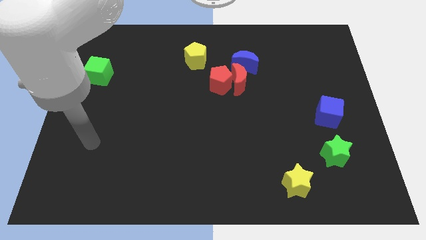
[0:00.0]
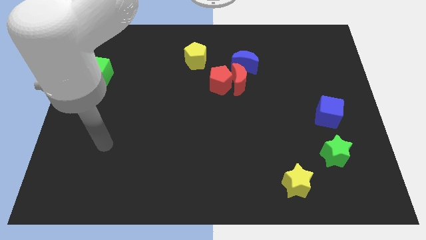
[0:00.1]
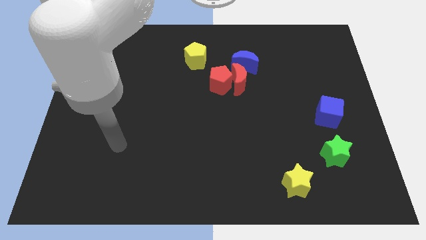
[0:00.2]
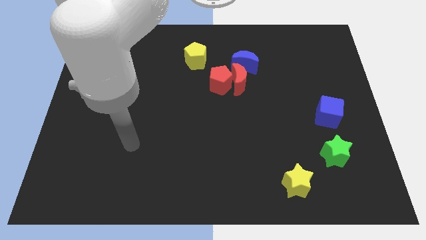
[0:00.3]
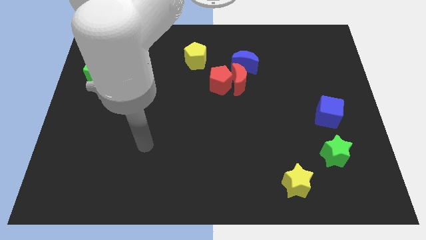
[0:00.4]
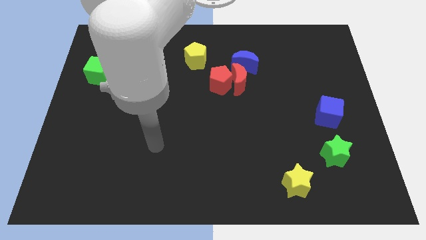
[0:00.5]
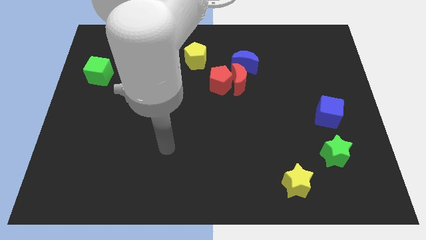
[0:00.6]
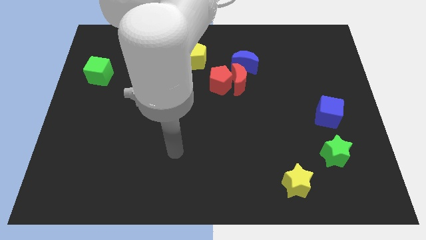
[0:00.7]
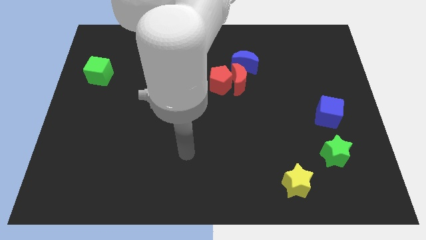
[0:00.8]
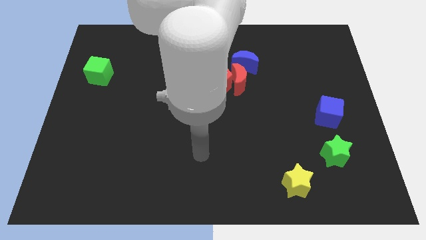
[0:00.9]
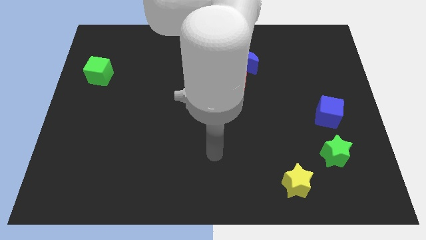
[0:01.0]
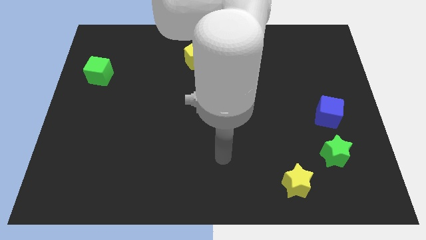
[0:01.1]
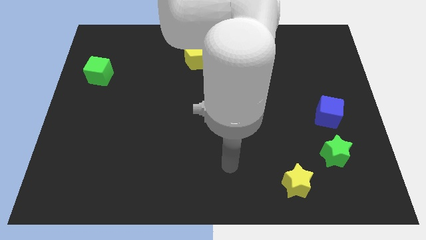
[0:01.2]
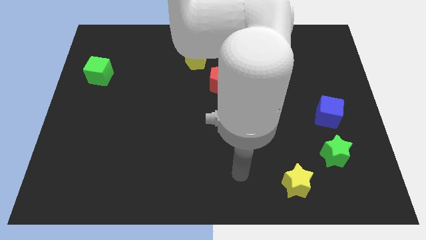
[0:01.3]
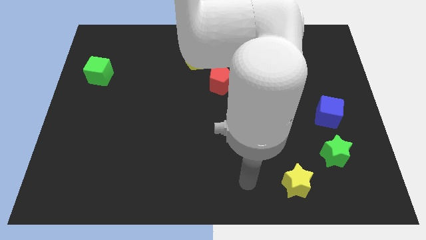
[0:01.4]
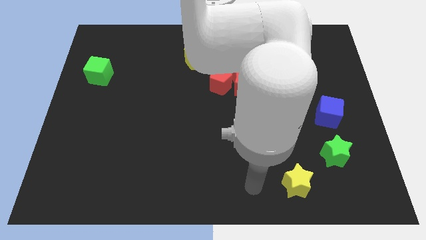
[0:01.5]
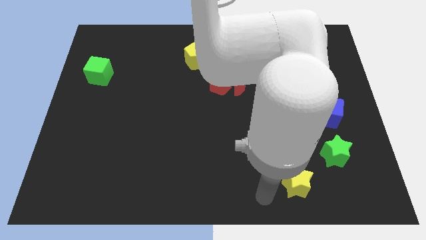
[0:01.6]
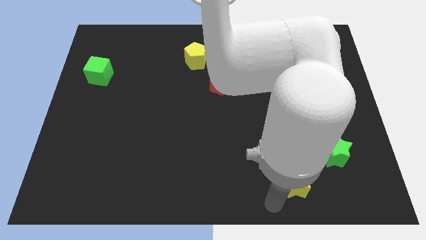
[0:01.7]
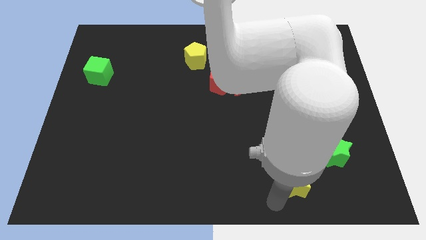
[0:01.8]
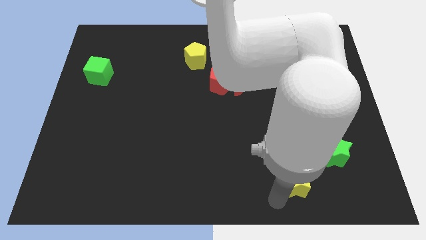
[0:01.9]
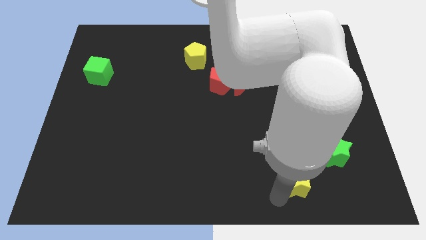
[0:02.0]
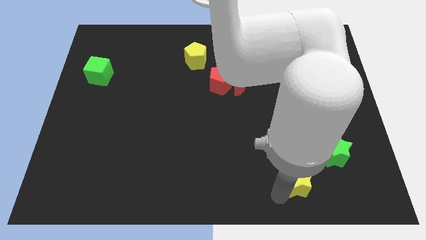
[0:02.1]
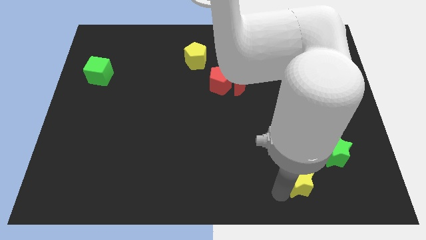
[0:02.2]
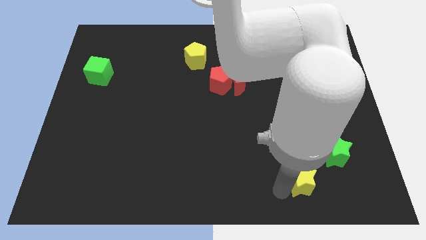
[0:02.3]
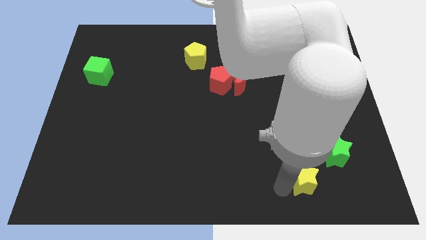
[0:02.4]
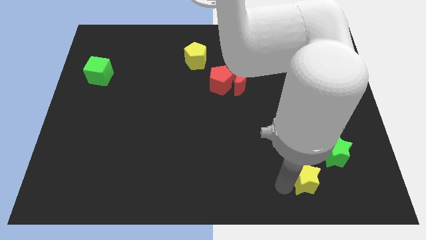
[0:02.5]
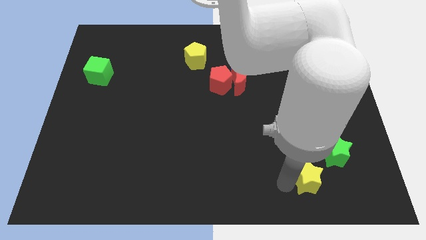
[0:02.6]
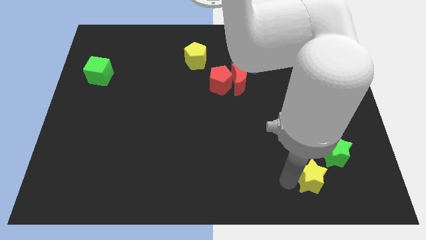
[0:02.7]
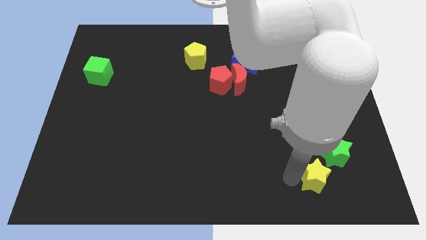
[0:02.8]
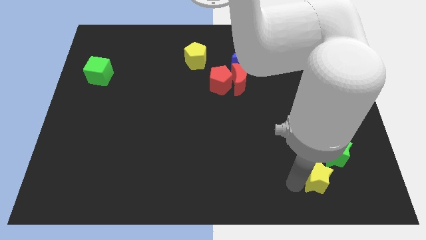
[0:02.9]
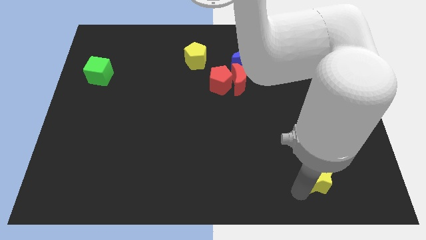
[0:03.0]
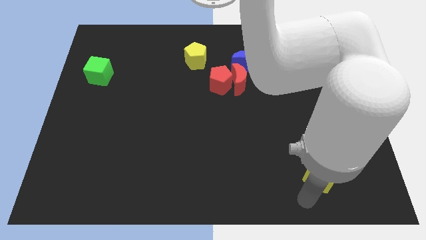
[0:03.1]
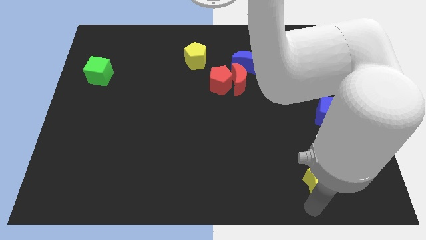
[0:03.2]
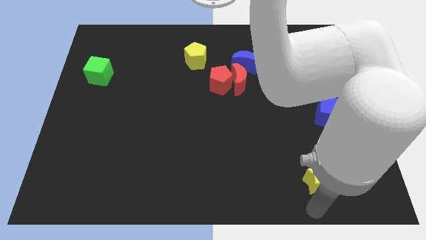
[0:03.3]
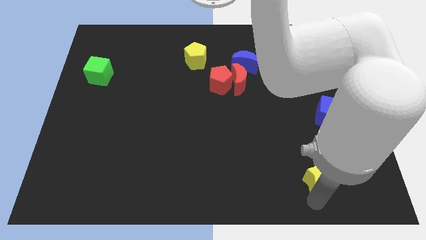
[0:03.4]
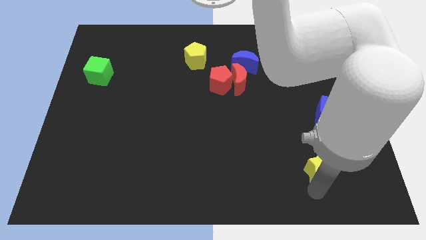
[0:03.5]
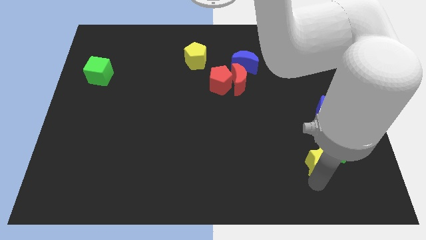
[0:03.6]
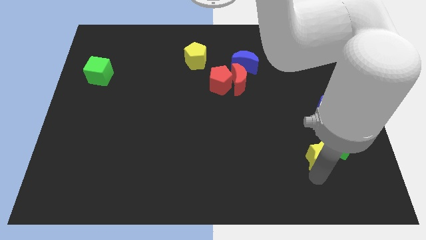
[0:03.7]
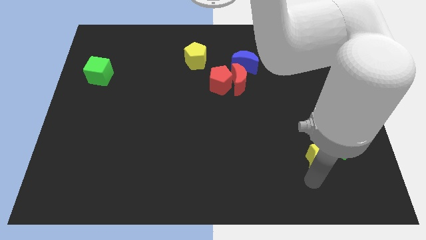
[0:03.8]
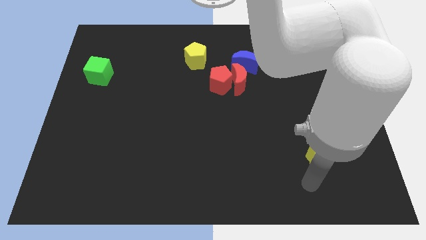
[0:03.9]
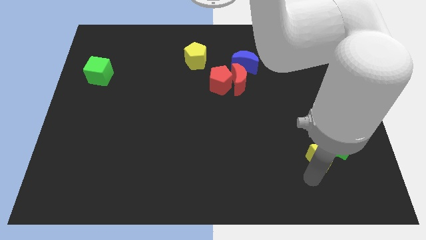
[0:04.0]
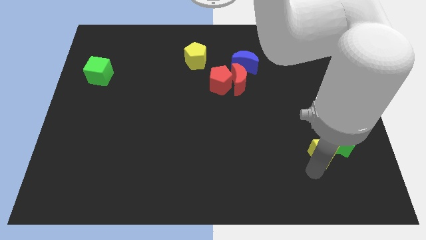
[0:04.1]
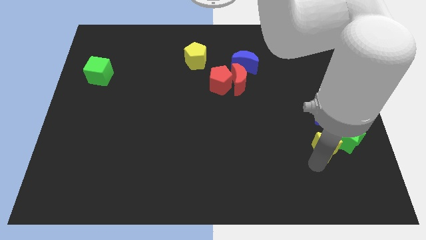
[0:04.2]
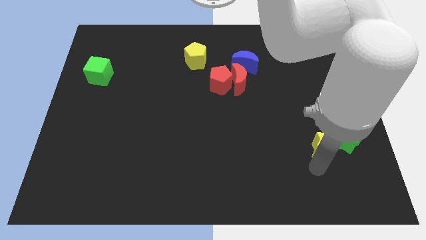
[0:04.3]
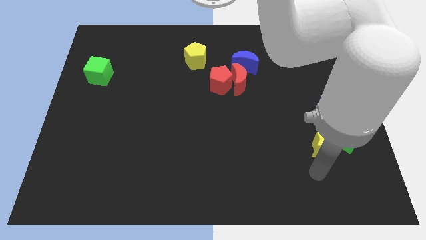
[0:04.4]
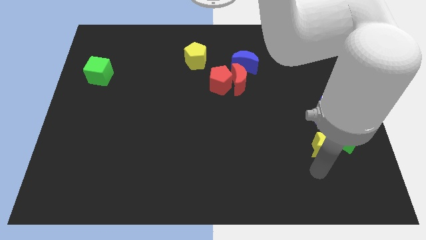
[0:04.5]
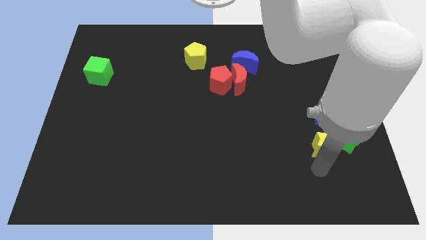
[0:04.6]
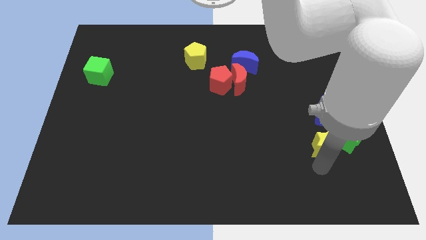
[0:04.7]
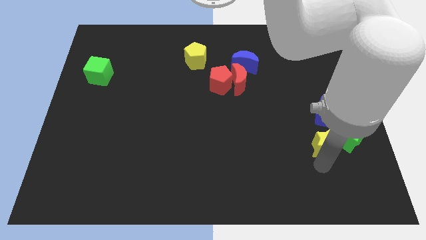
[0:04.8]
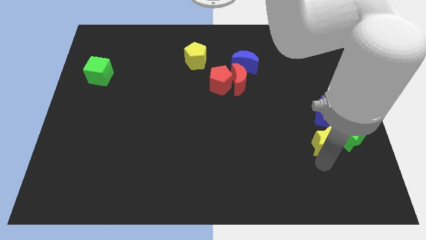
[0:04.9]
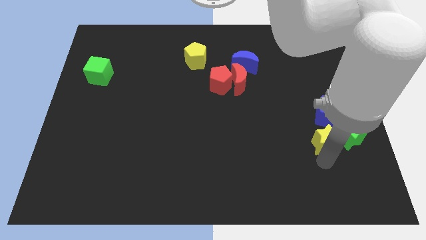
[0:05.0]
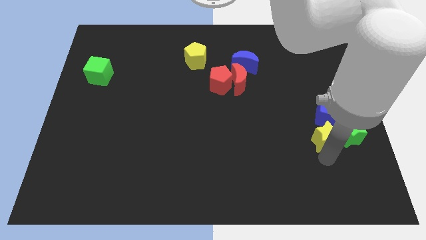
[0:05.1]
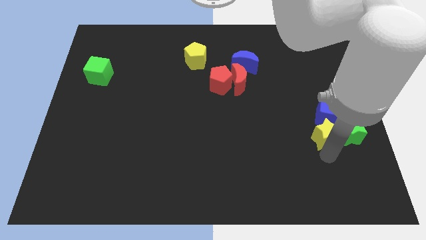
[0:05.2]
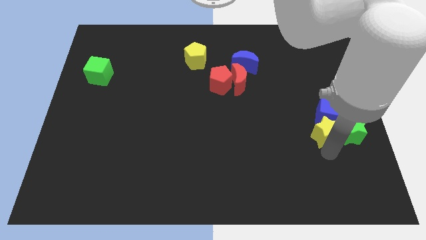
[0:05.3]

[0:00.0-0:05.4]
slide the yellow star to the blue cube

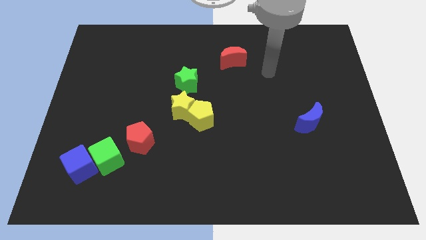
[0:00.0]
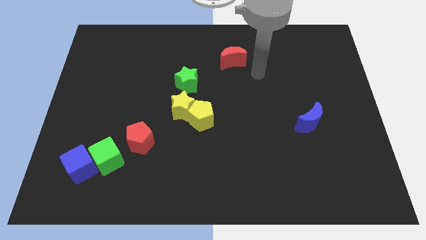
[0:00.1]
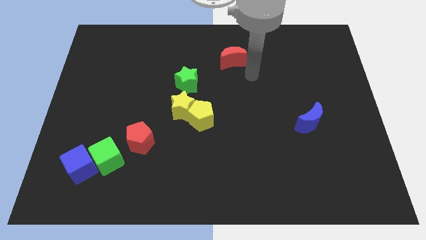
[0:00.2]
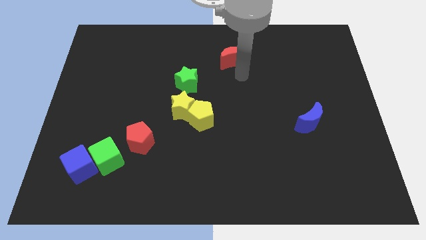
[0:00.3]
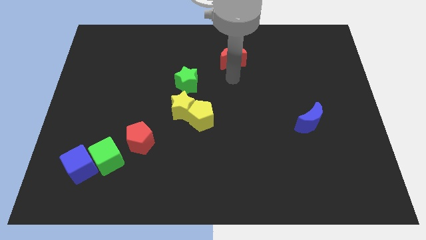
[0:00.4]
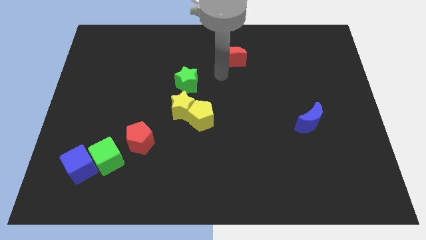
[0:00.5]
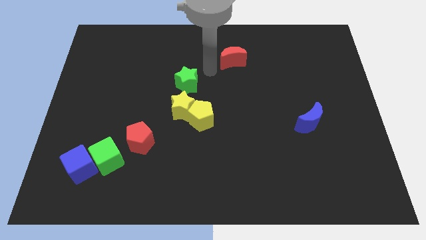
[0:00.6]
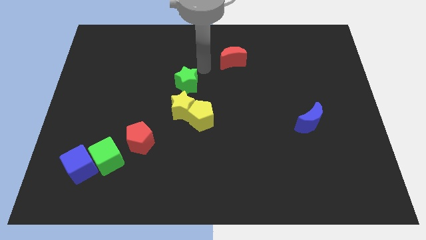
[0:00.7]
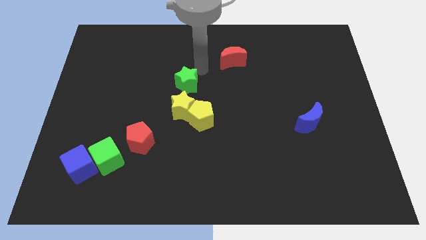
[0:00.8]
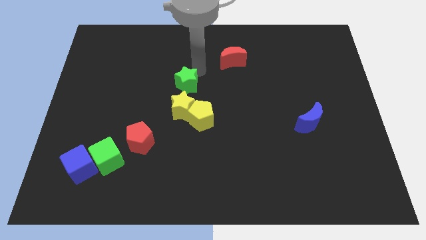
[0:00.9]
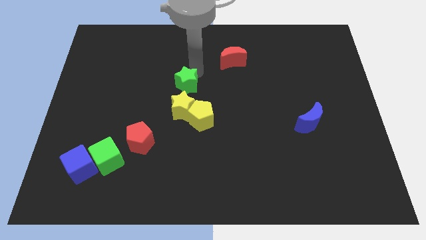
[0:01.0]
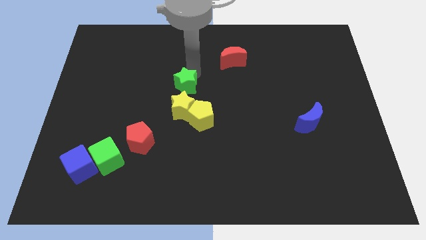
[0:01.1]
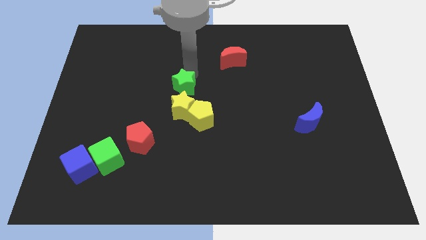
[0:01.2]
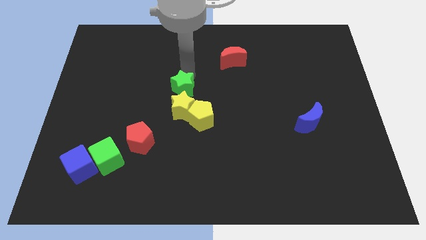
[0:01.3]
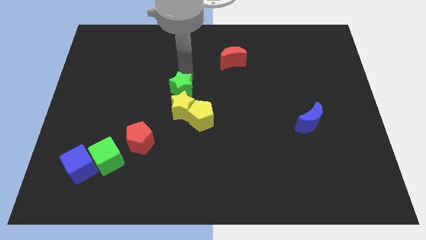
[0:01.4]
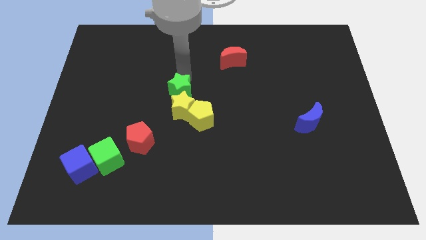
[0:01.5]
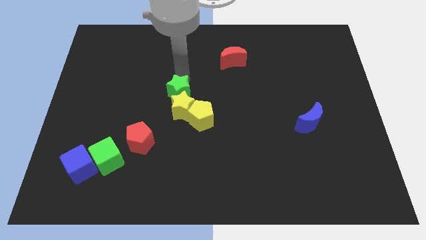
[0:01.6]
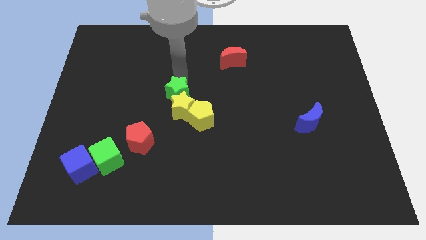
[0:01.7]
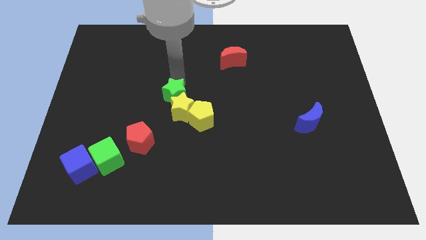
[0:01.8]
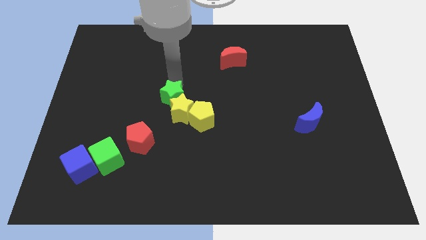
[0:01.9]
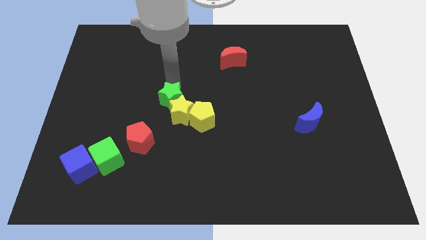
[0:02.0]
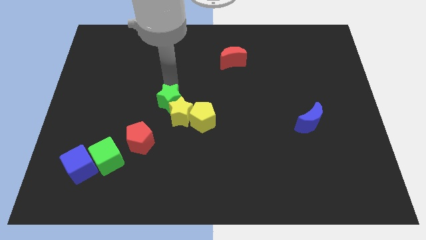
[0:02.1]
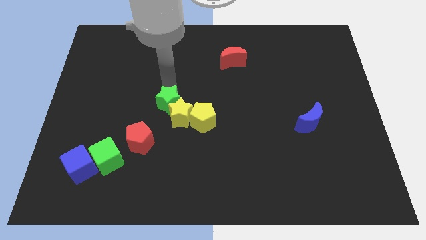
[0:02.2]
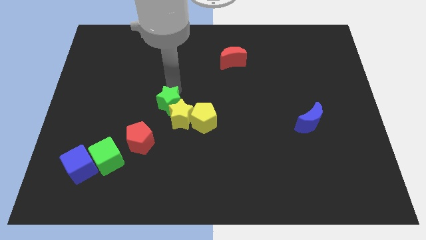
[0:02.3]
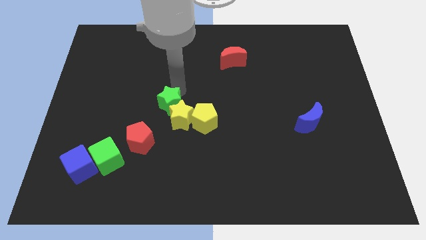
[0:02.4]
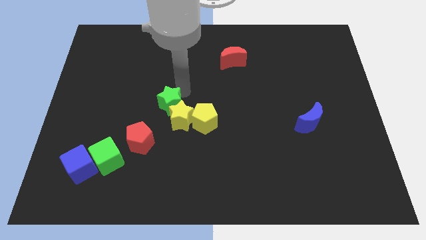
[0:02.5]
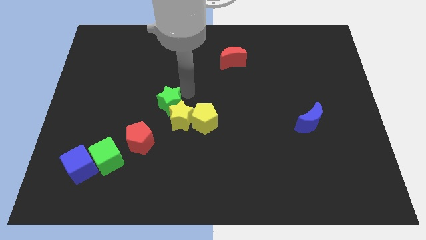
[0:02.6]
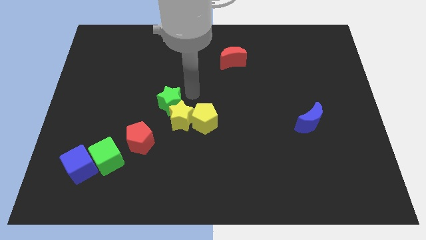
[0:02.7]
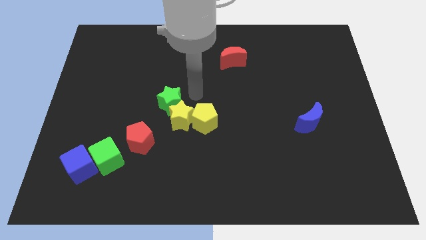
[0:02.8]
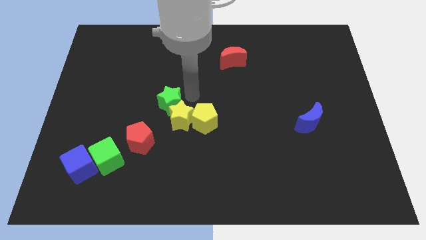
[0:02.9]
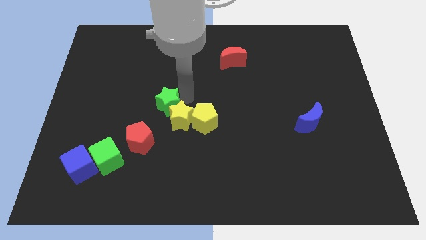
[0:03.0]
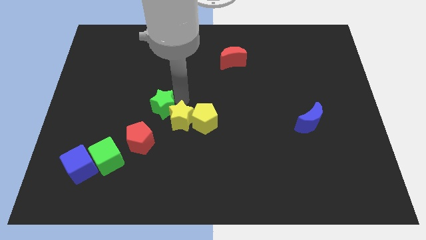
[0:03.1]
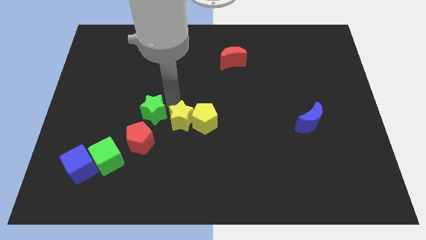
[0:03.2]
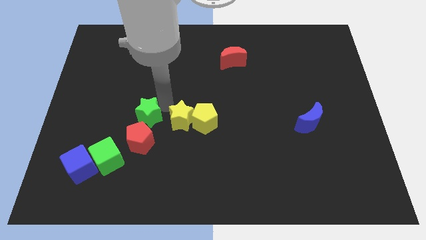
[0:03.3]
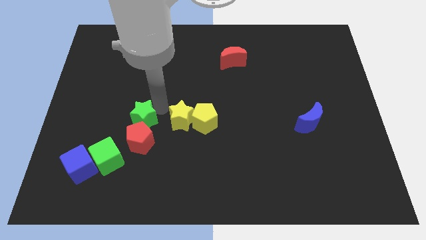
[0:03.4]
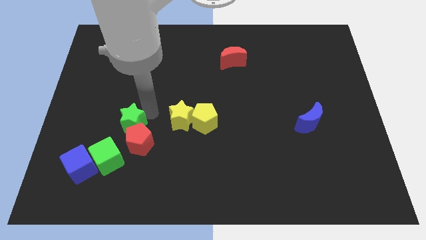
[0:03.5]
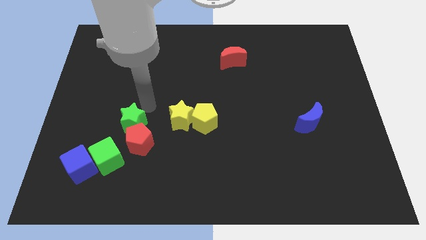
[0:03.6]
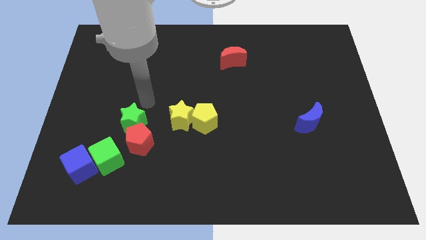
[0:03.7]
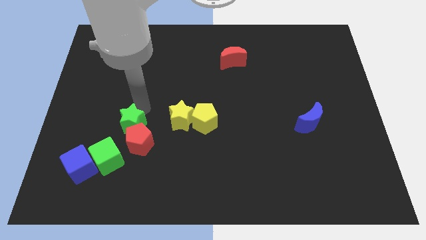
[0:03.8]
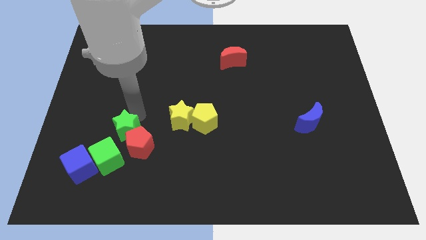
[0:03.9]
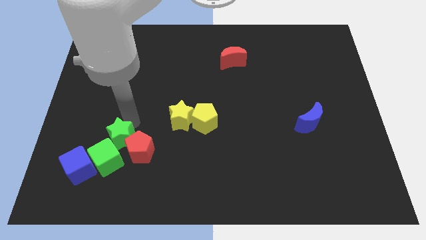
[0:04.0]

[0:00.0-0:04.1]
move the green star next to the green cube
